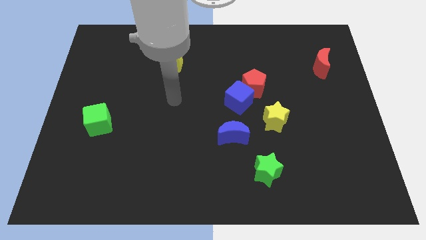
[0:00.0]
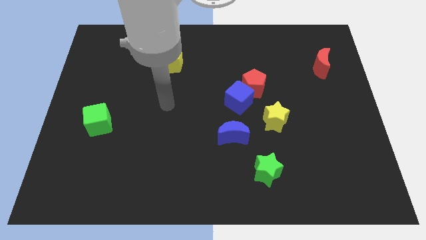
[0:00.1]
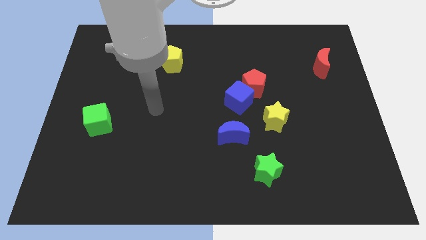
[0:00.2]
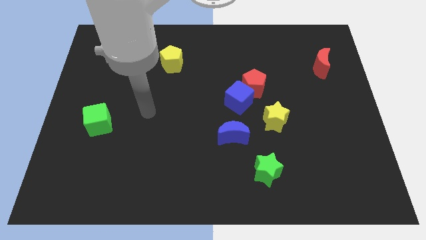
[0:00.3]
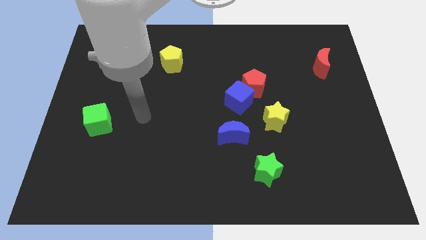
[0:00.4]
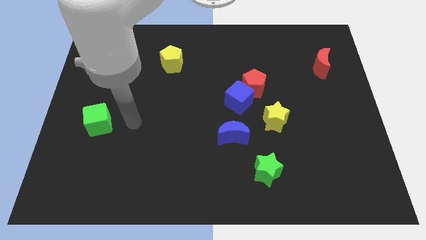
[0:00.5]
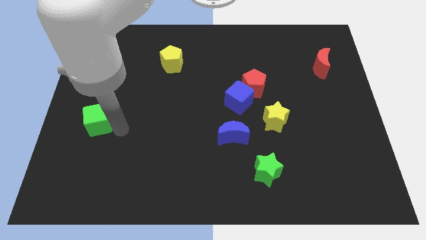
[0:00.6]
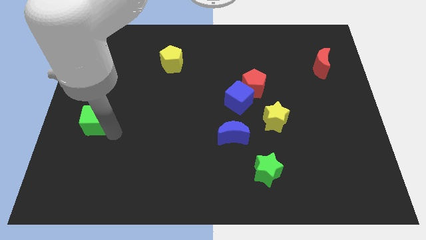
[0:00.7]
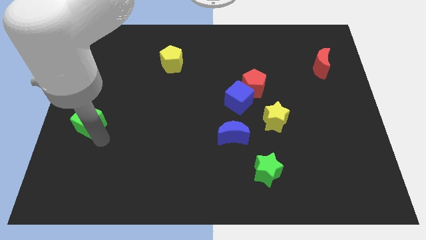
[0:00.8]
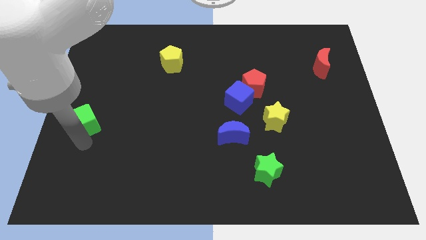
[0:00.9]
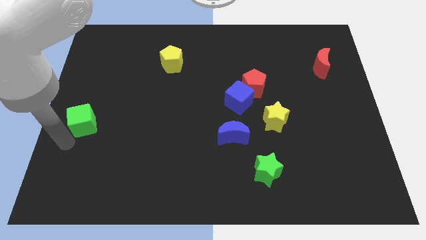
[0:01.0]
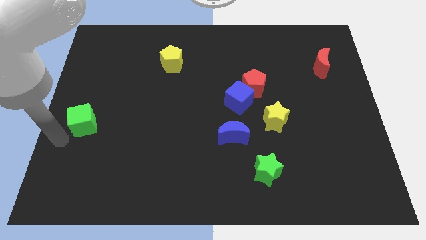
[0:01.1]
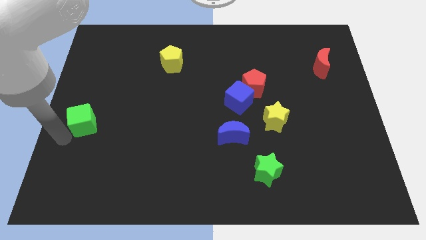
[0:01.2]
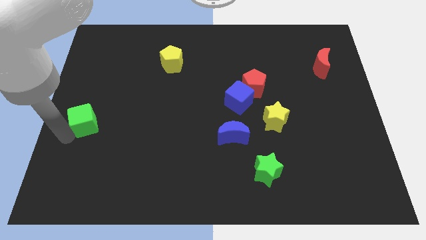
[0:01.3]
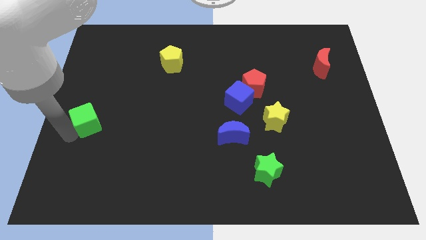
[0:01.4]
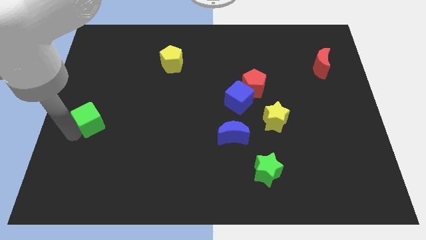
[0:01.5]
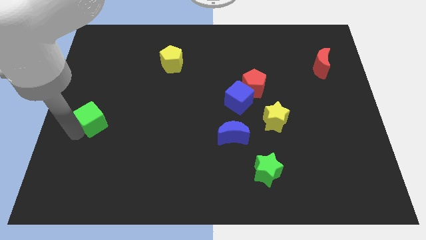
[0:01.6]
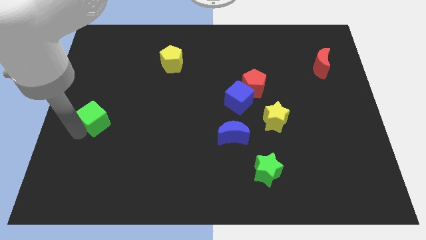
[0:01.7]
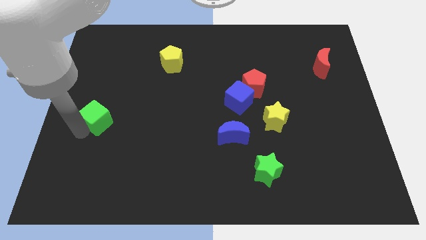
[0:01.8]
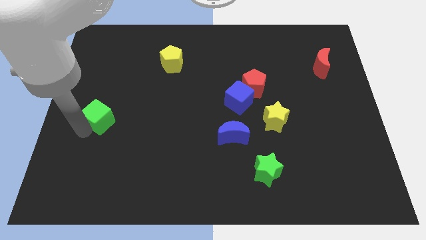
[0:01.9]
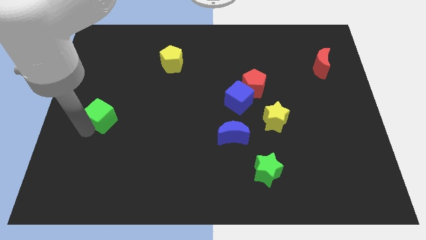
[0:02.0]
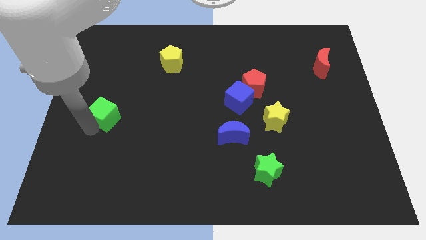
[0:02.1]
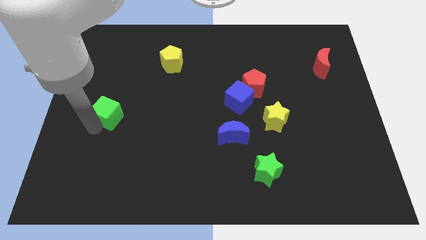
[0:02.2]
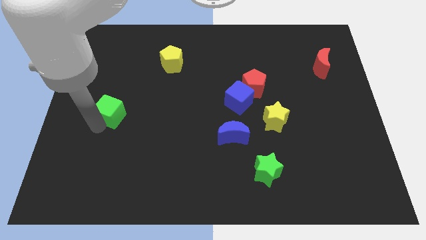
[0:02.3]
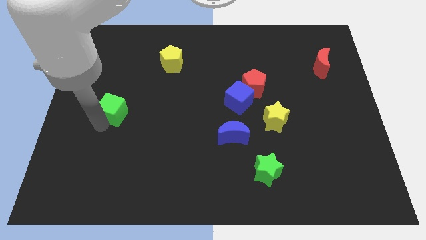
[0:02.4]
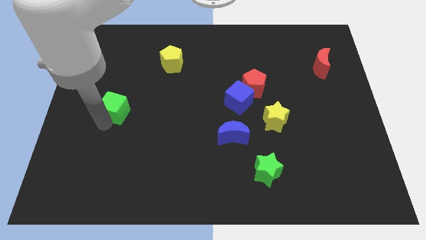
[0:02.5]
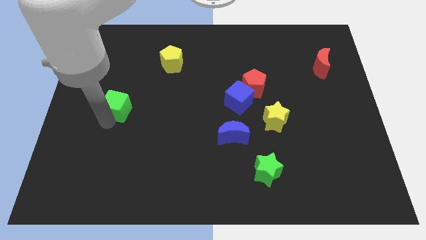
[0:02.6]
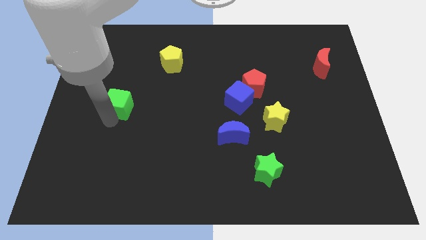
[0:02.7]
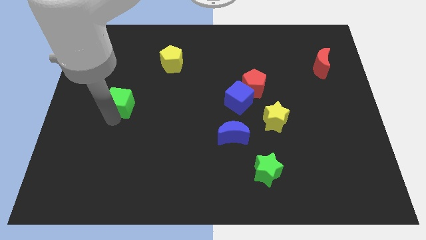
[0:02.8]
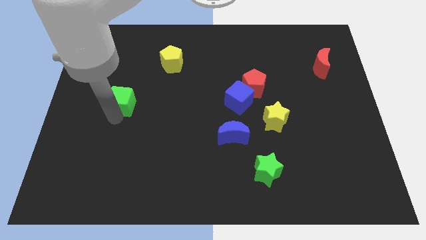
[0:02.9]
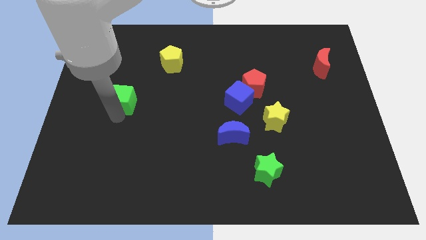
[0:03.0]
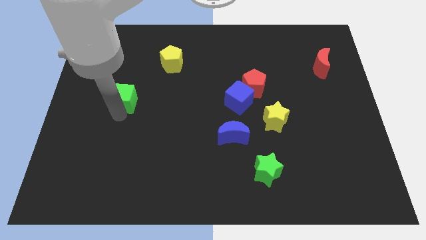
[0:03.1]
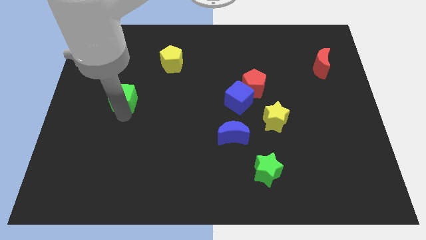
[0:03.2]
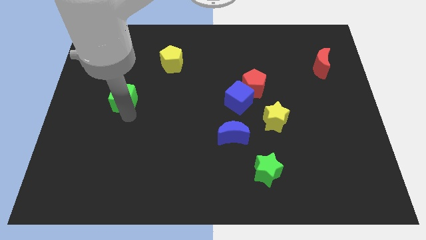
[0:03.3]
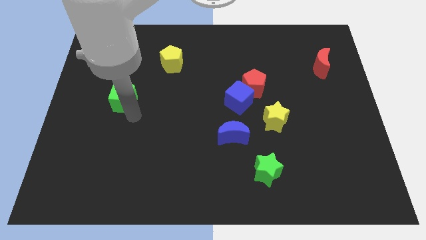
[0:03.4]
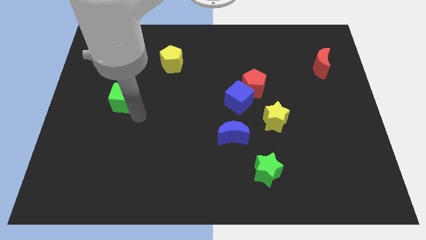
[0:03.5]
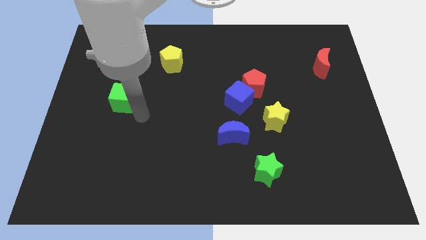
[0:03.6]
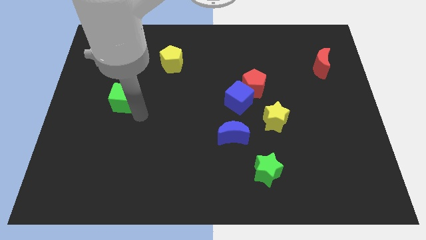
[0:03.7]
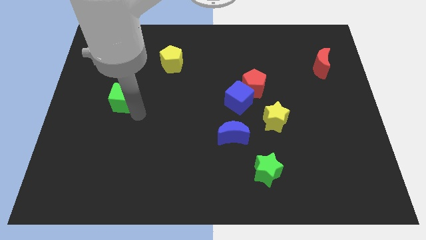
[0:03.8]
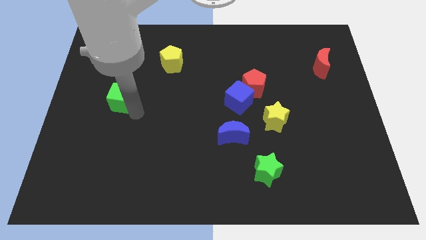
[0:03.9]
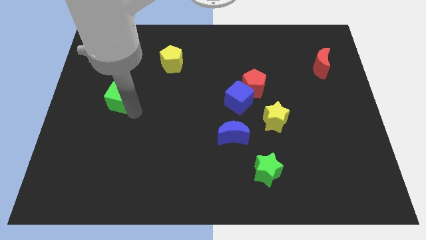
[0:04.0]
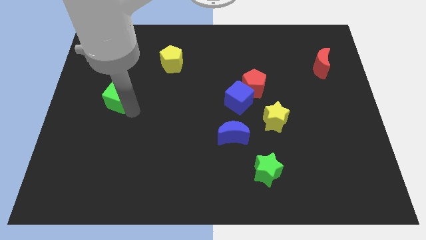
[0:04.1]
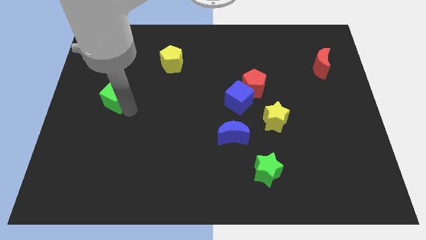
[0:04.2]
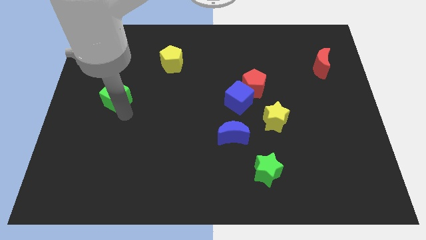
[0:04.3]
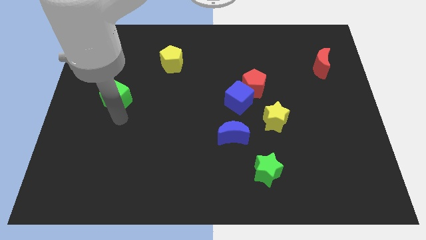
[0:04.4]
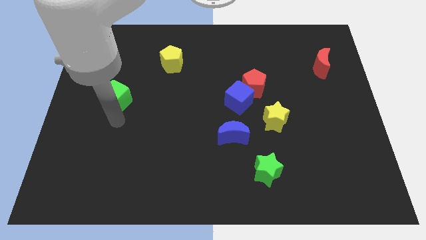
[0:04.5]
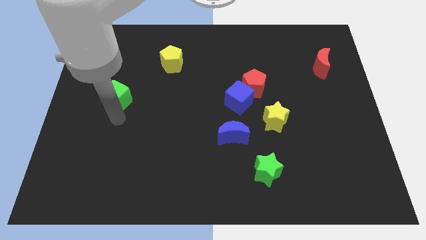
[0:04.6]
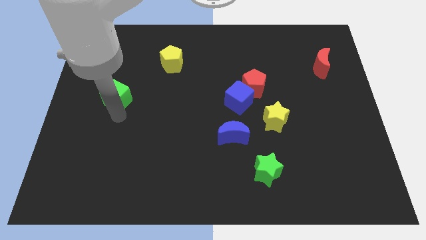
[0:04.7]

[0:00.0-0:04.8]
slightly move the green cube up

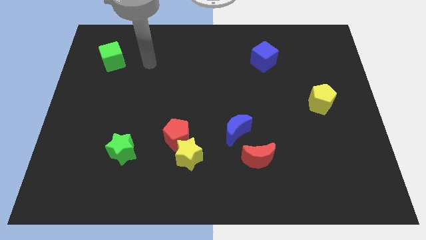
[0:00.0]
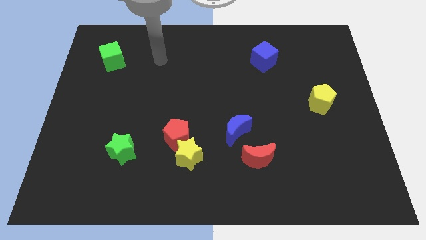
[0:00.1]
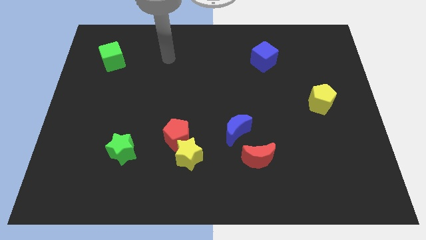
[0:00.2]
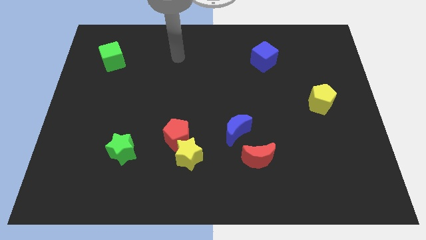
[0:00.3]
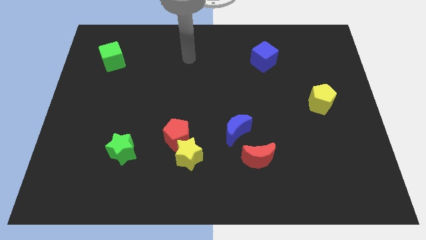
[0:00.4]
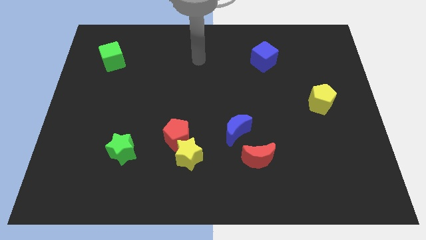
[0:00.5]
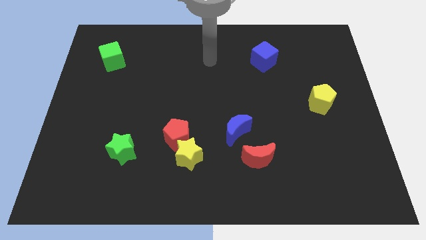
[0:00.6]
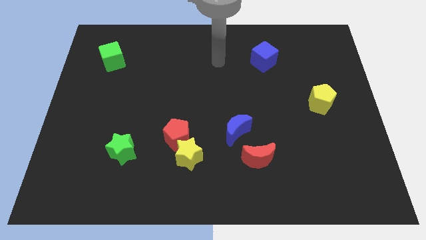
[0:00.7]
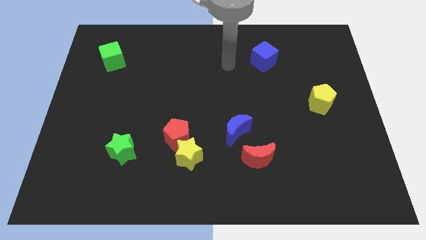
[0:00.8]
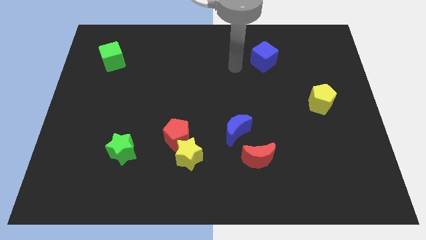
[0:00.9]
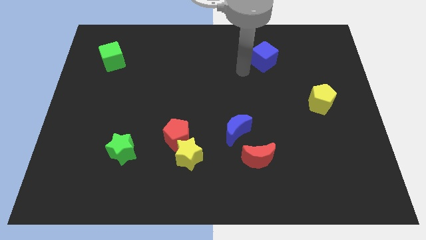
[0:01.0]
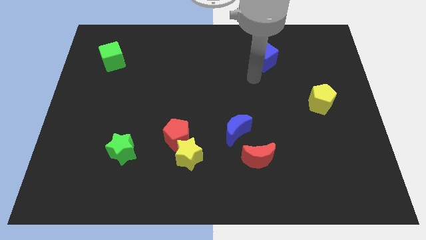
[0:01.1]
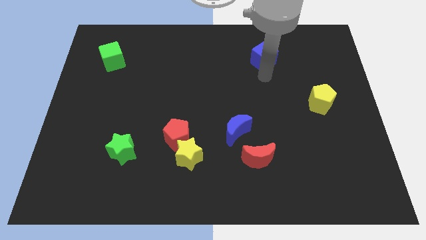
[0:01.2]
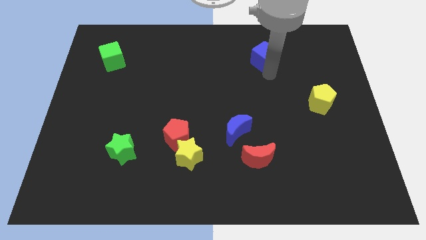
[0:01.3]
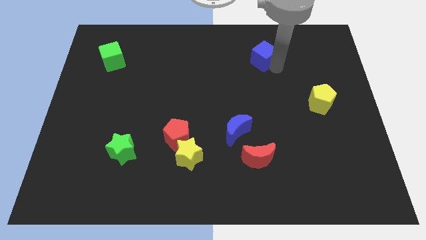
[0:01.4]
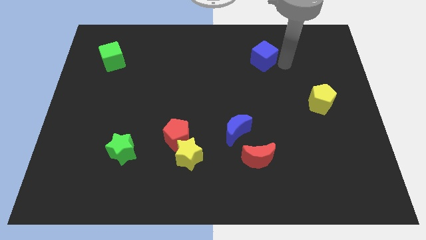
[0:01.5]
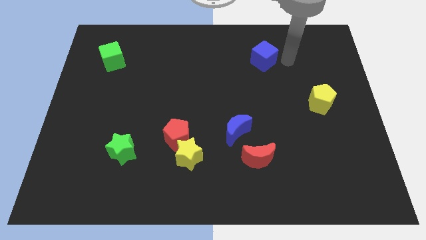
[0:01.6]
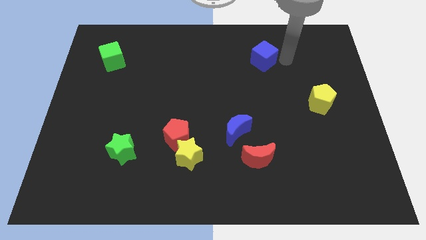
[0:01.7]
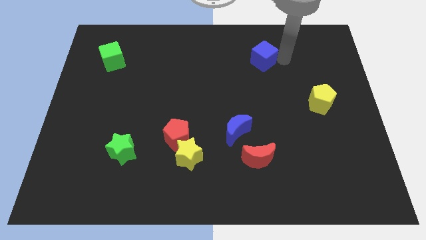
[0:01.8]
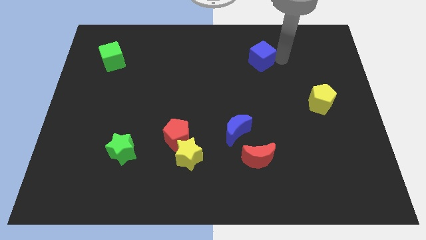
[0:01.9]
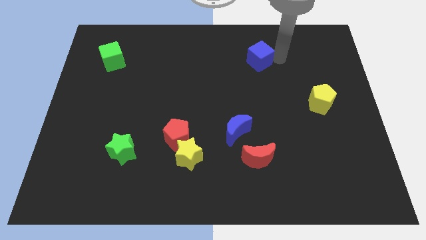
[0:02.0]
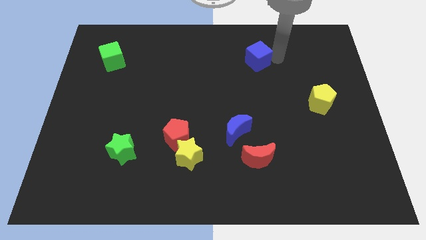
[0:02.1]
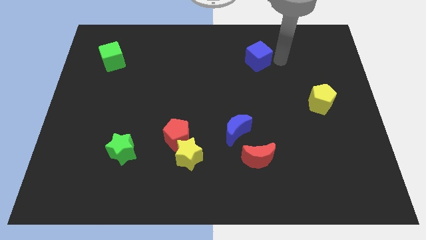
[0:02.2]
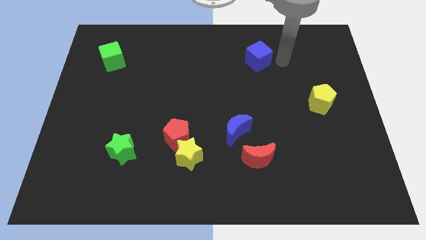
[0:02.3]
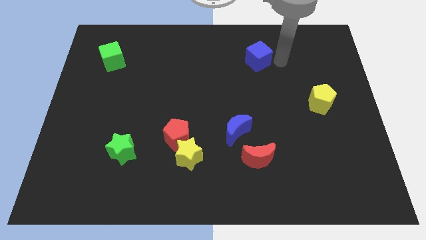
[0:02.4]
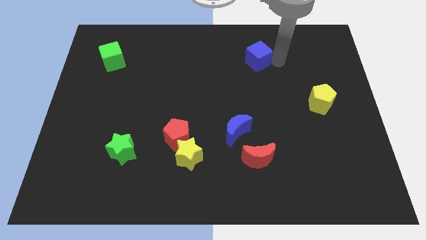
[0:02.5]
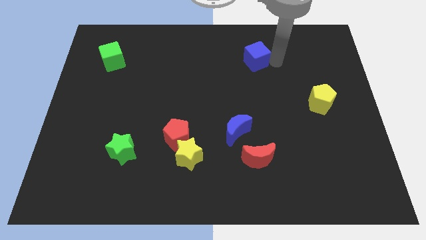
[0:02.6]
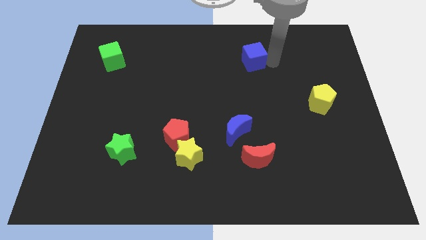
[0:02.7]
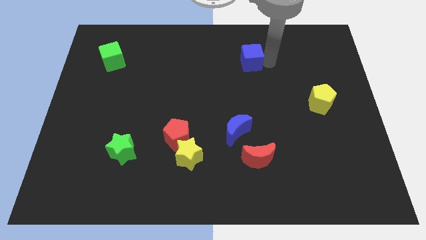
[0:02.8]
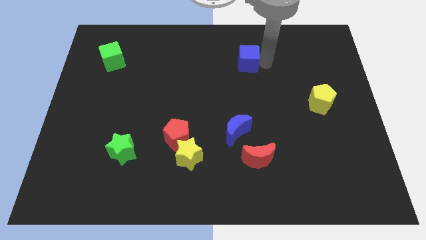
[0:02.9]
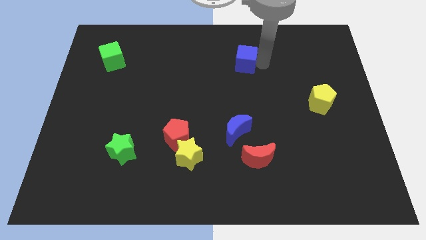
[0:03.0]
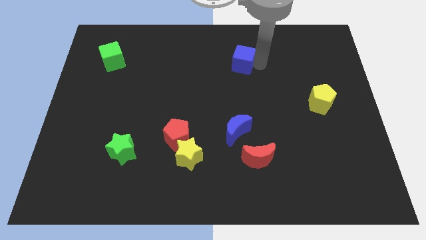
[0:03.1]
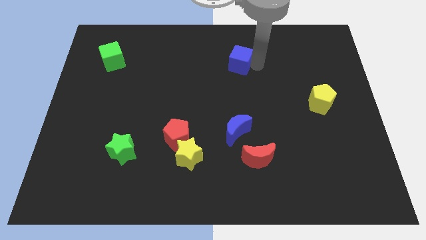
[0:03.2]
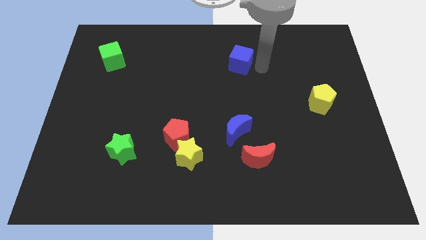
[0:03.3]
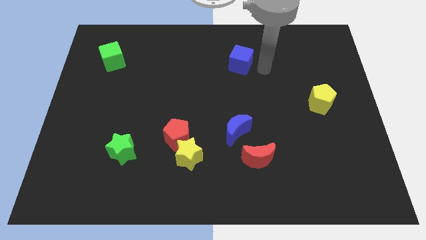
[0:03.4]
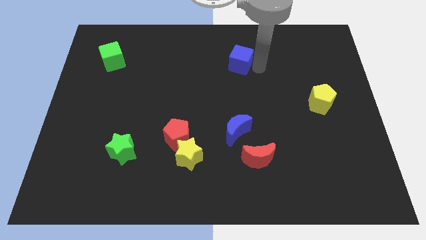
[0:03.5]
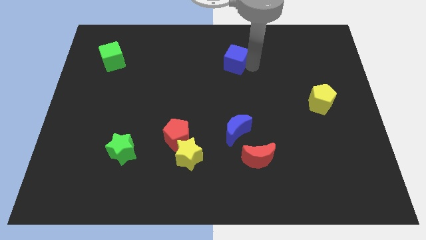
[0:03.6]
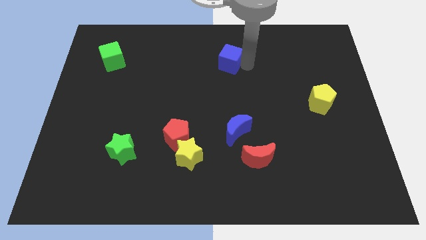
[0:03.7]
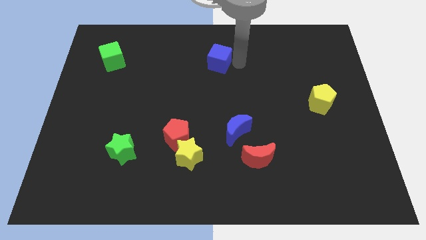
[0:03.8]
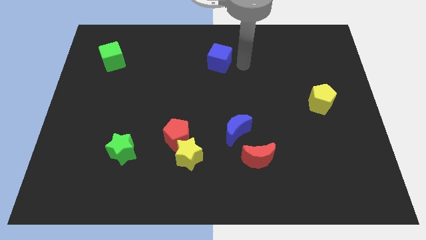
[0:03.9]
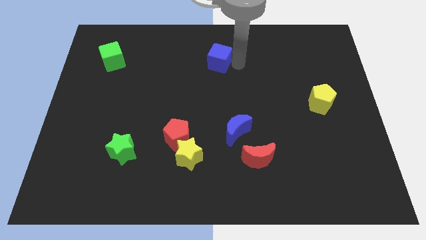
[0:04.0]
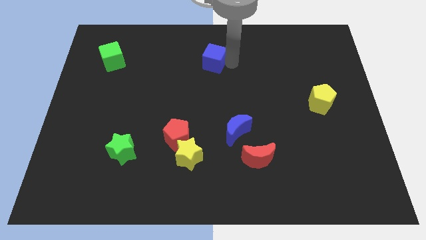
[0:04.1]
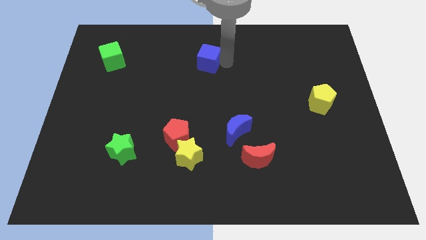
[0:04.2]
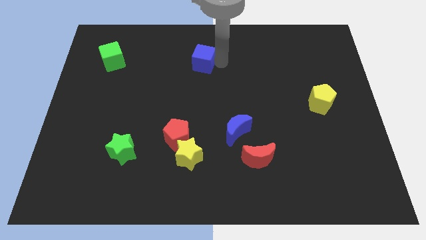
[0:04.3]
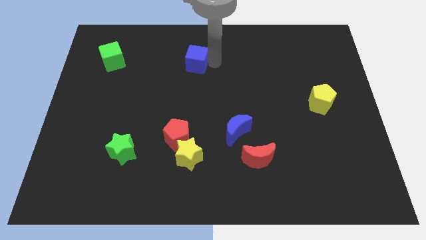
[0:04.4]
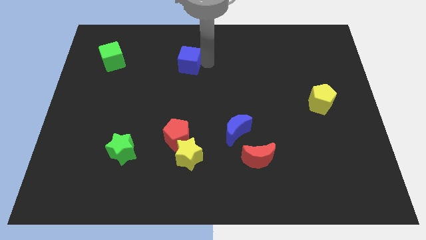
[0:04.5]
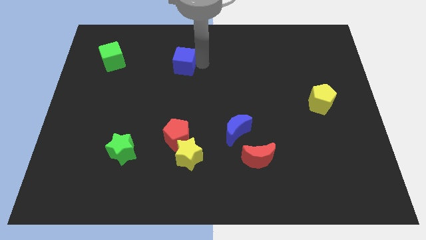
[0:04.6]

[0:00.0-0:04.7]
push the blue cube left
